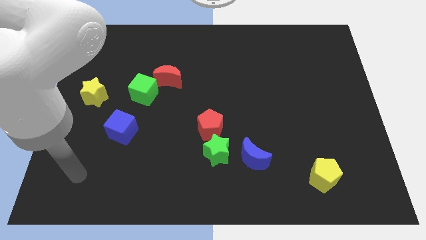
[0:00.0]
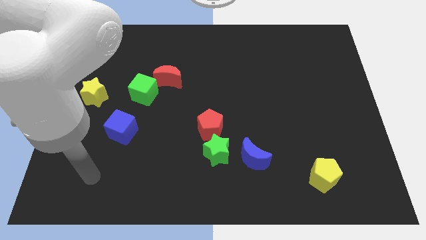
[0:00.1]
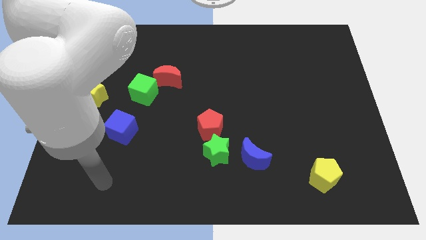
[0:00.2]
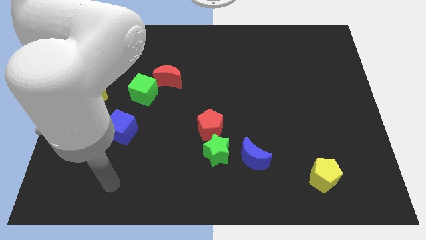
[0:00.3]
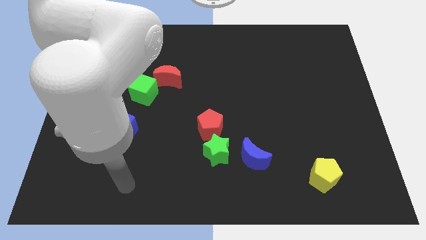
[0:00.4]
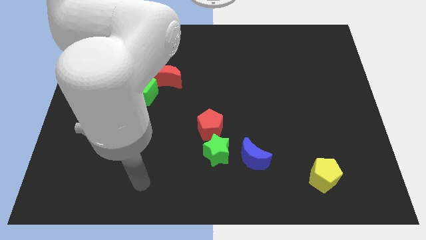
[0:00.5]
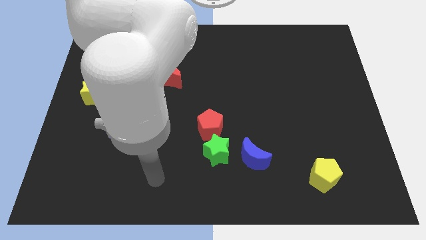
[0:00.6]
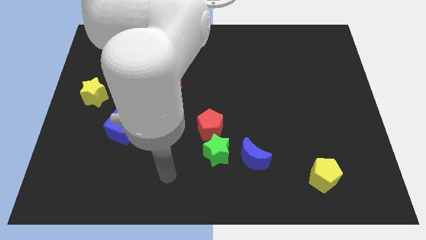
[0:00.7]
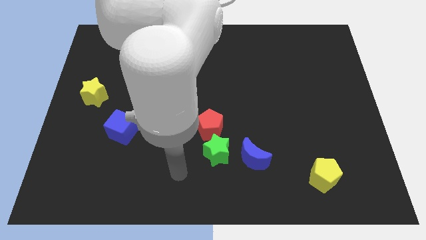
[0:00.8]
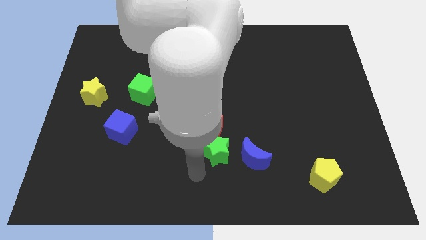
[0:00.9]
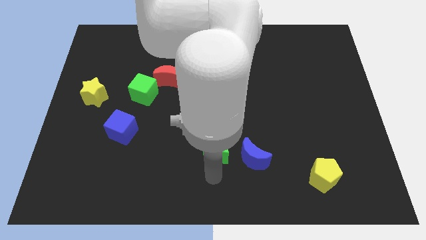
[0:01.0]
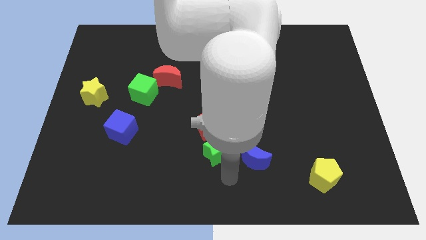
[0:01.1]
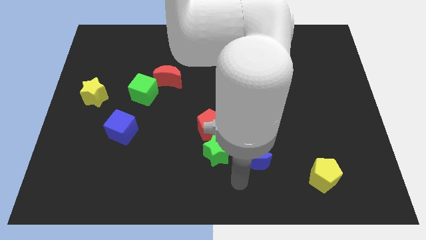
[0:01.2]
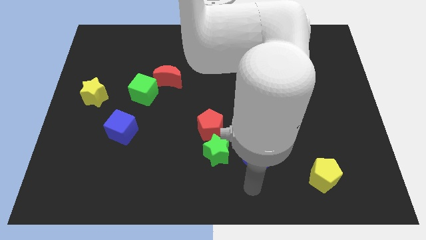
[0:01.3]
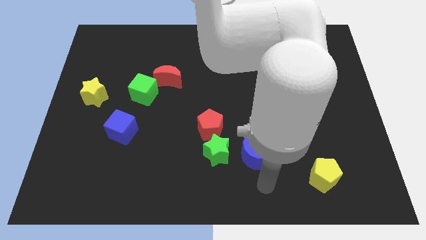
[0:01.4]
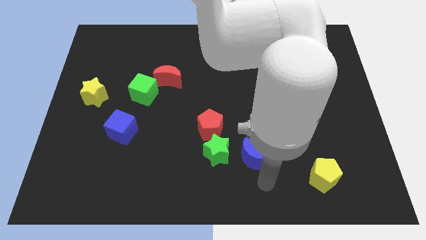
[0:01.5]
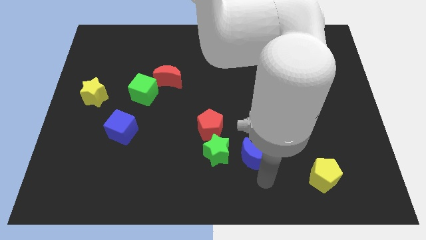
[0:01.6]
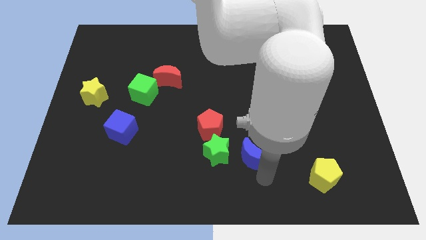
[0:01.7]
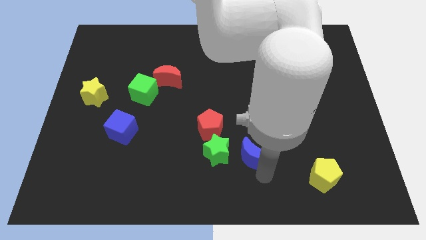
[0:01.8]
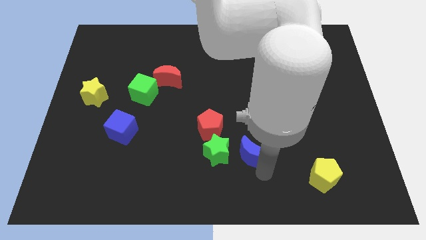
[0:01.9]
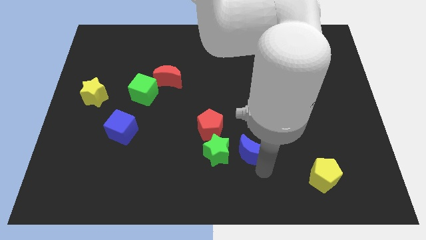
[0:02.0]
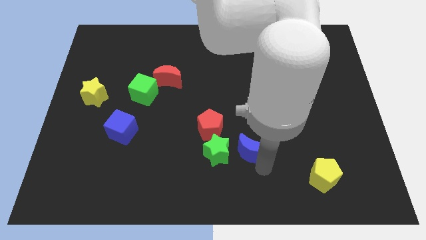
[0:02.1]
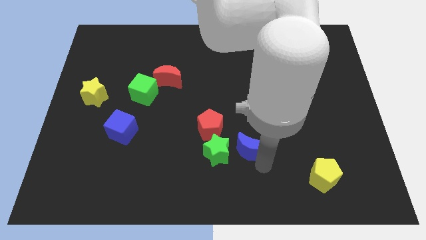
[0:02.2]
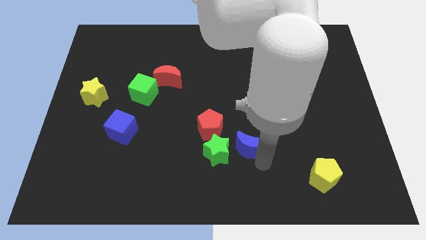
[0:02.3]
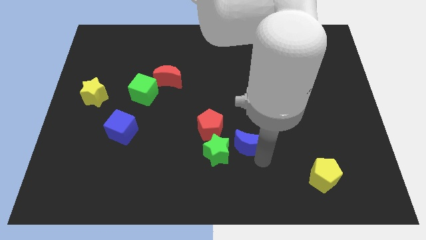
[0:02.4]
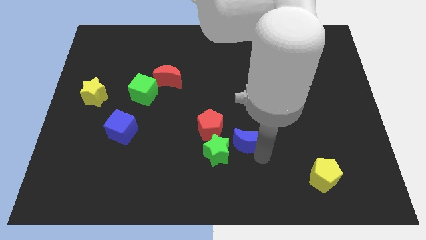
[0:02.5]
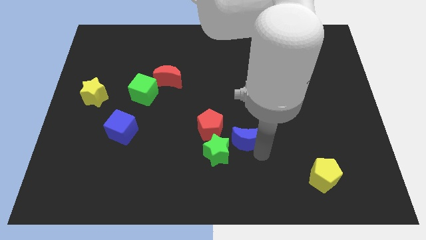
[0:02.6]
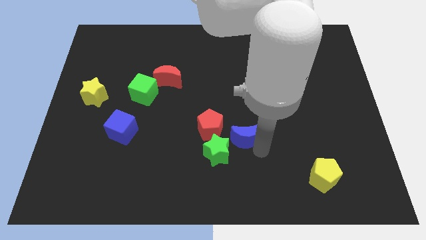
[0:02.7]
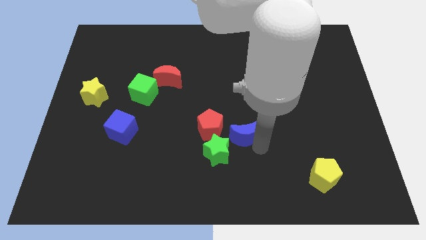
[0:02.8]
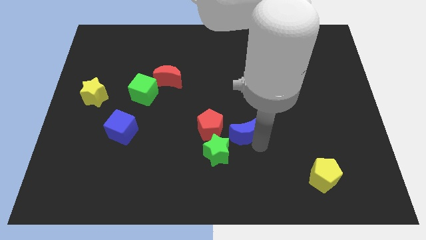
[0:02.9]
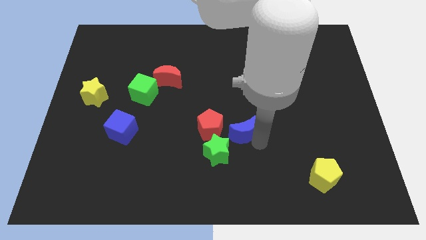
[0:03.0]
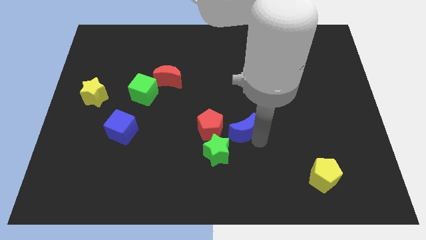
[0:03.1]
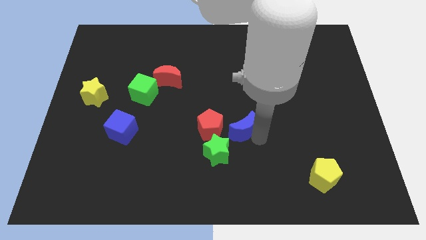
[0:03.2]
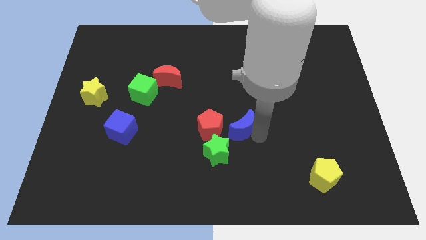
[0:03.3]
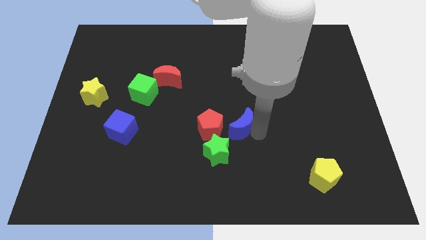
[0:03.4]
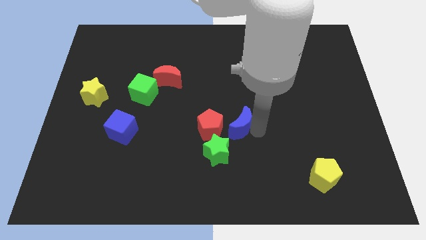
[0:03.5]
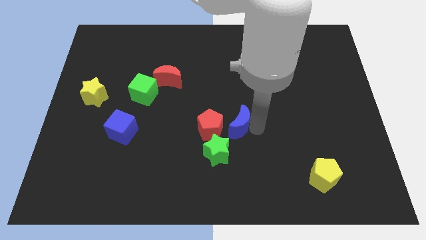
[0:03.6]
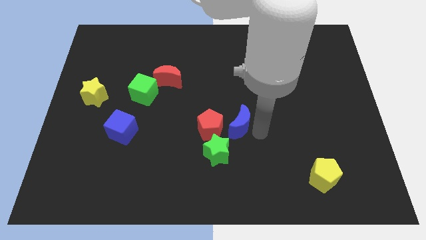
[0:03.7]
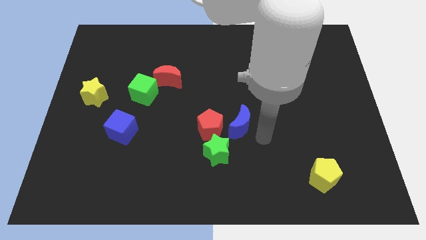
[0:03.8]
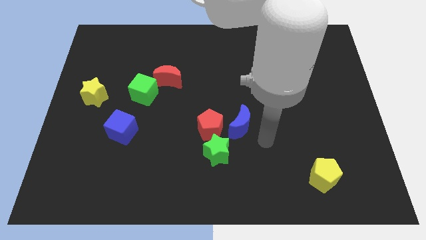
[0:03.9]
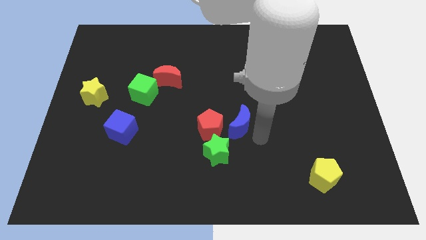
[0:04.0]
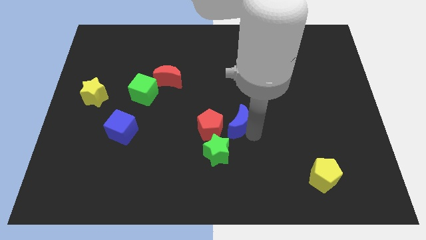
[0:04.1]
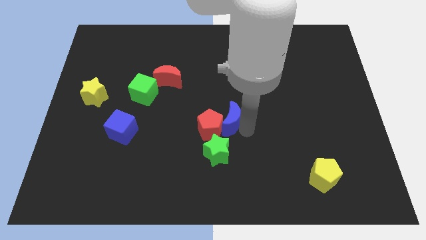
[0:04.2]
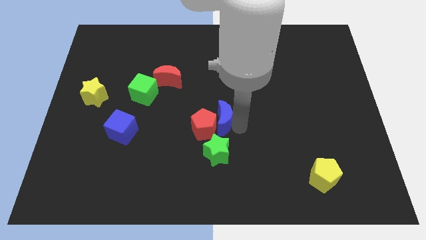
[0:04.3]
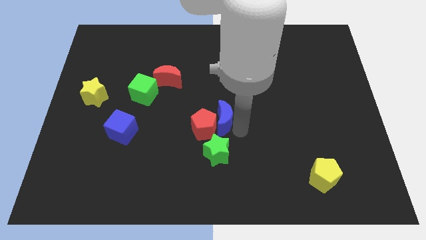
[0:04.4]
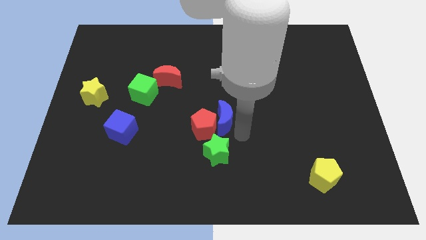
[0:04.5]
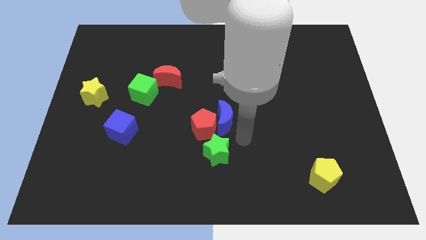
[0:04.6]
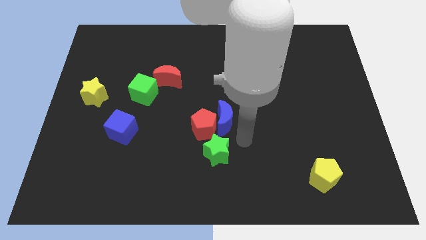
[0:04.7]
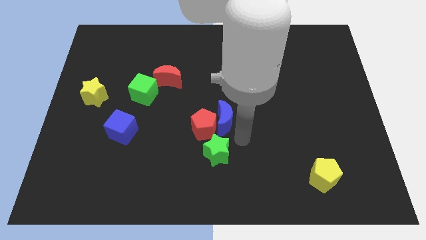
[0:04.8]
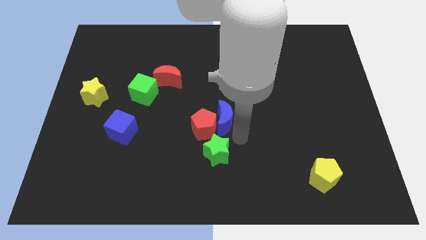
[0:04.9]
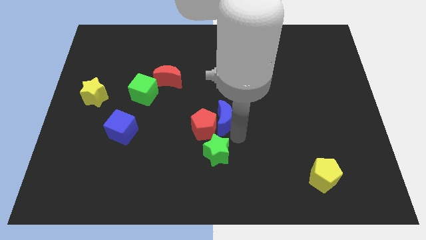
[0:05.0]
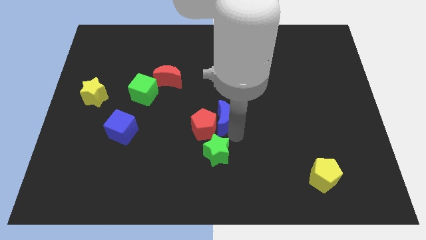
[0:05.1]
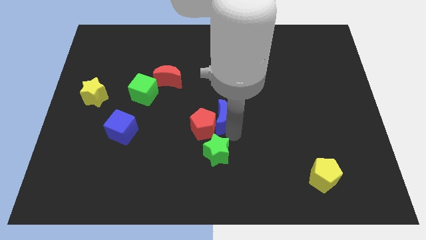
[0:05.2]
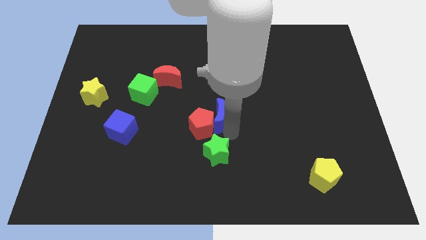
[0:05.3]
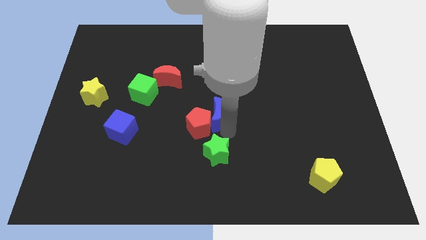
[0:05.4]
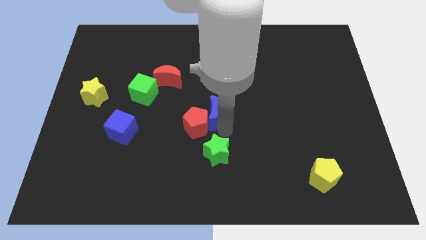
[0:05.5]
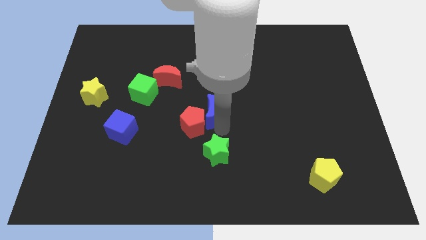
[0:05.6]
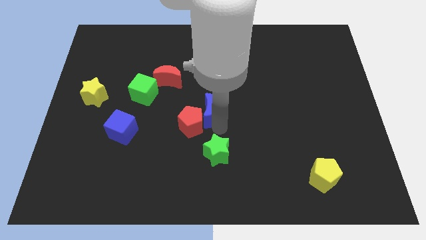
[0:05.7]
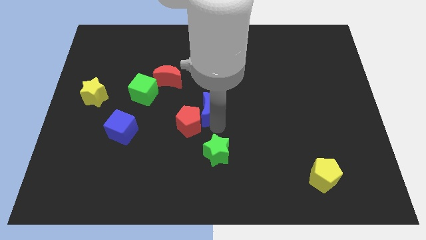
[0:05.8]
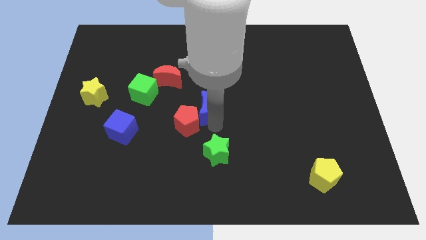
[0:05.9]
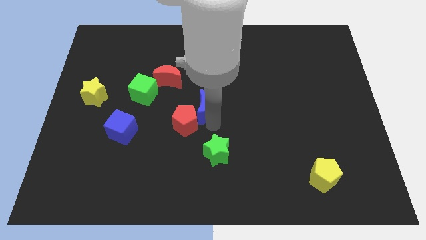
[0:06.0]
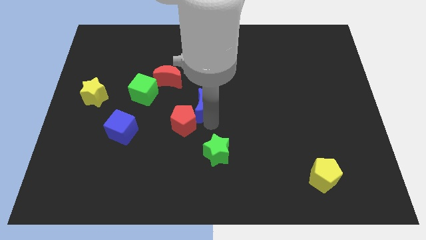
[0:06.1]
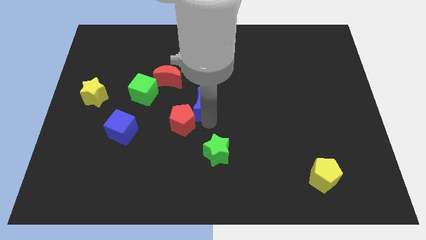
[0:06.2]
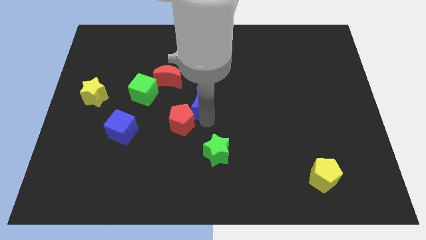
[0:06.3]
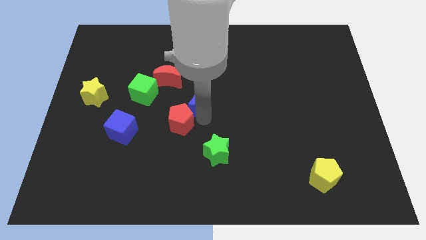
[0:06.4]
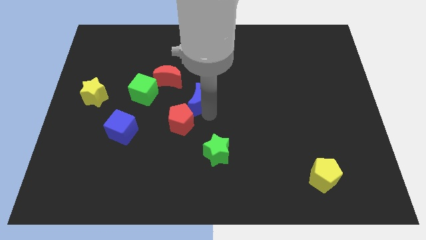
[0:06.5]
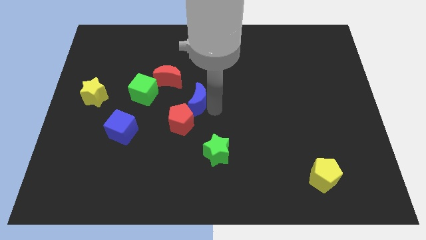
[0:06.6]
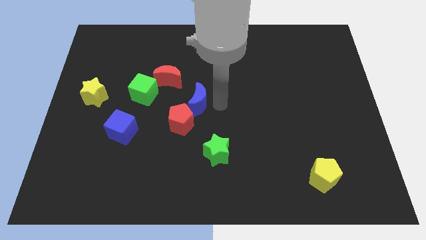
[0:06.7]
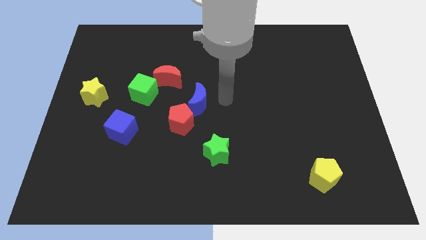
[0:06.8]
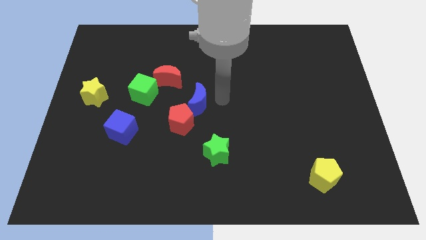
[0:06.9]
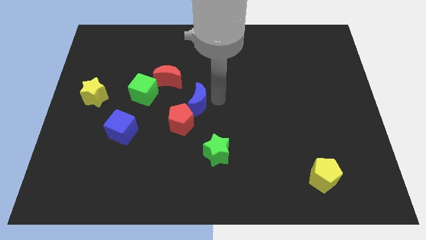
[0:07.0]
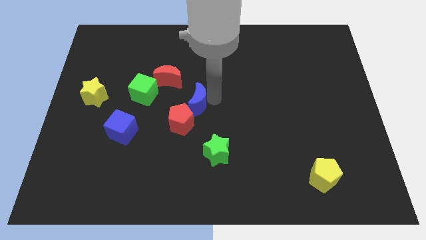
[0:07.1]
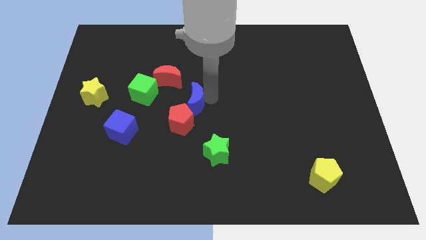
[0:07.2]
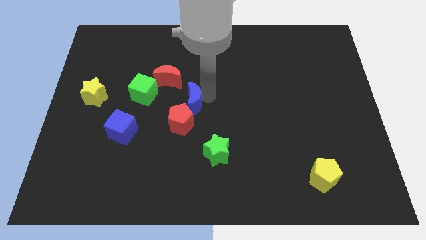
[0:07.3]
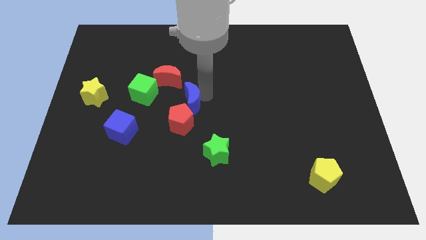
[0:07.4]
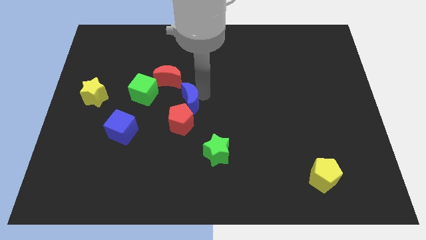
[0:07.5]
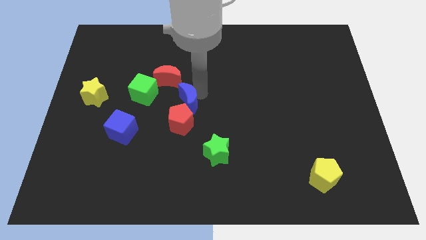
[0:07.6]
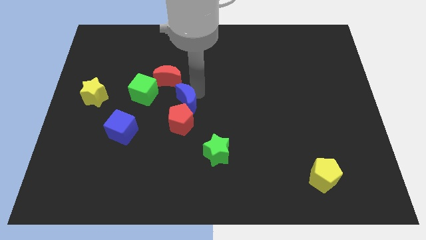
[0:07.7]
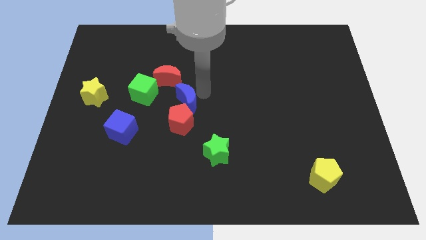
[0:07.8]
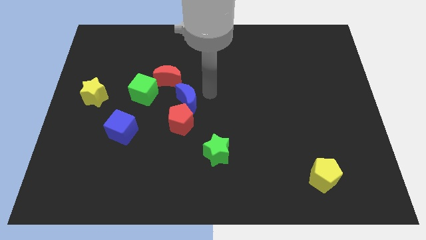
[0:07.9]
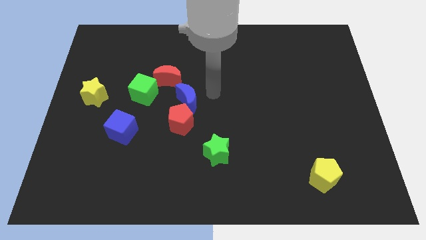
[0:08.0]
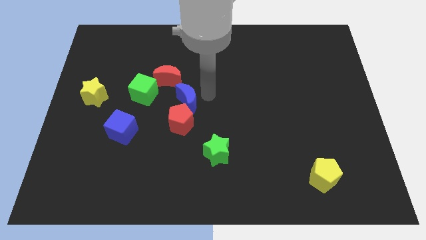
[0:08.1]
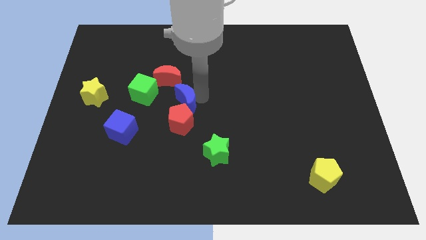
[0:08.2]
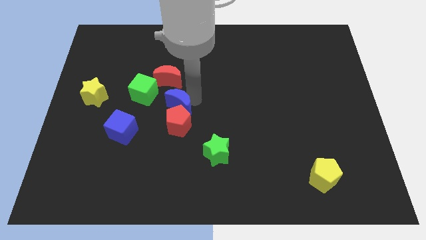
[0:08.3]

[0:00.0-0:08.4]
slide the blue moon to the bottom right of the green cube
